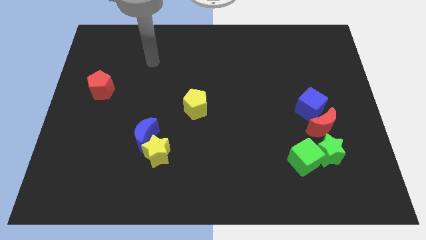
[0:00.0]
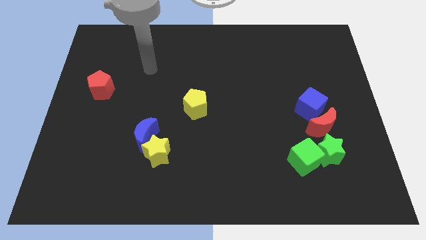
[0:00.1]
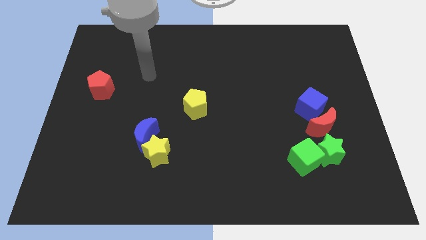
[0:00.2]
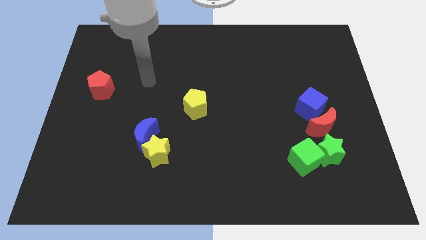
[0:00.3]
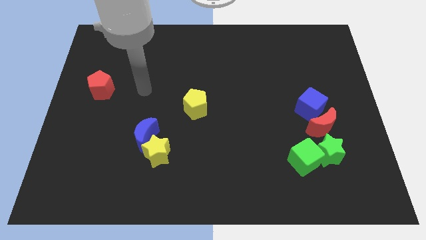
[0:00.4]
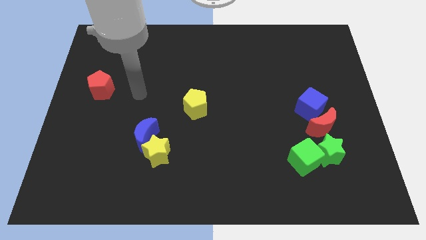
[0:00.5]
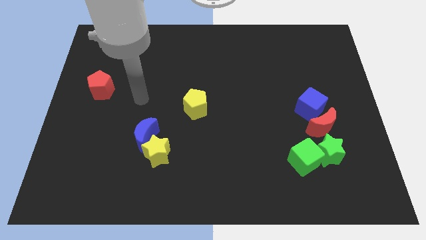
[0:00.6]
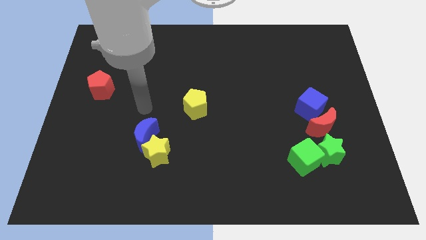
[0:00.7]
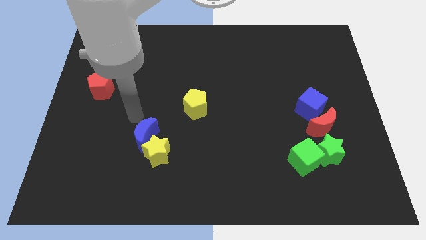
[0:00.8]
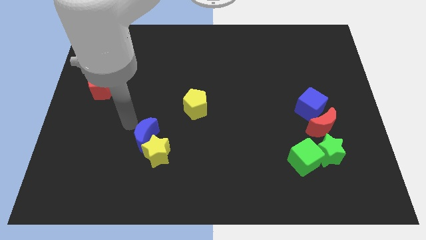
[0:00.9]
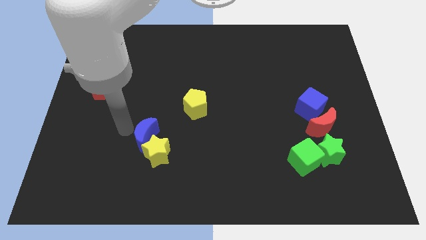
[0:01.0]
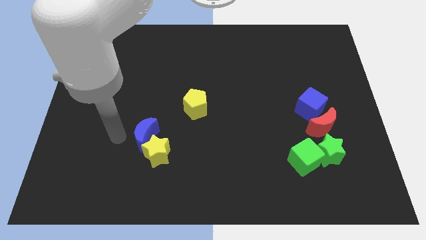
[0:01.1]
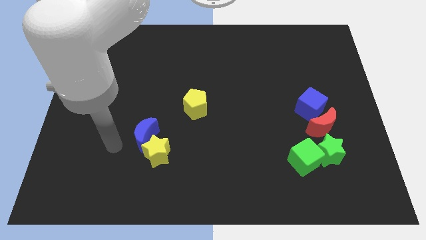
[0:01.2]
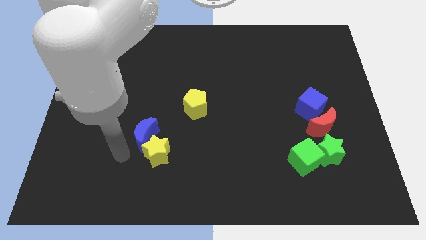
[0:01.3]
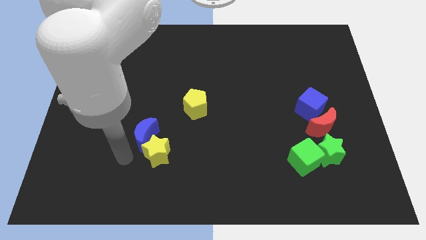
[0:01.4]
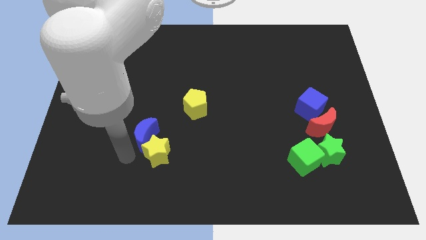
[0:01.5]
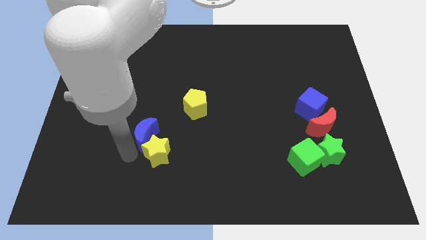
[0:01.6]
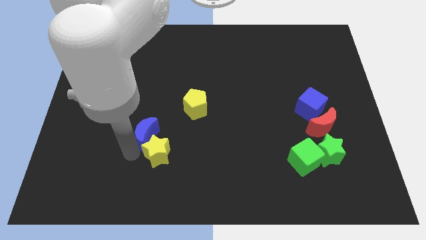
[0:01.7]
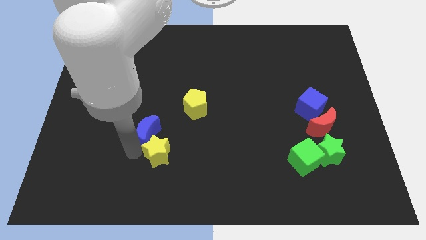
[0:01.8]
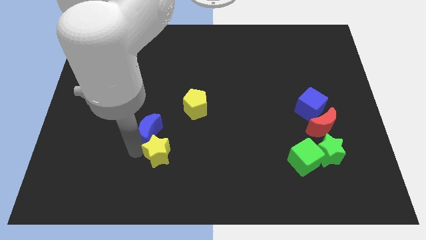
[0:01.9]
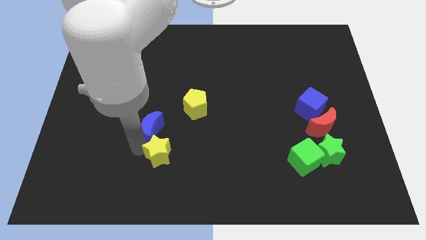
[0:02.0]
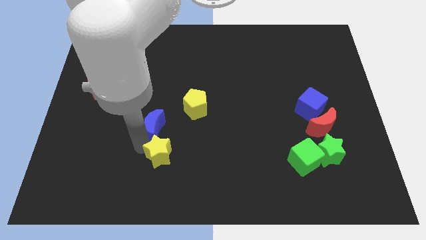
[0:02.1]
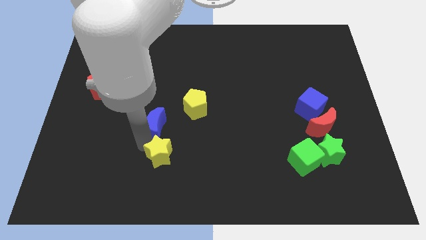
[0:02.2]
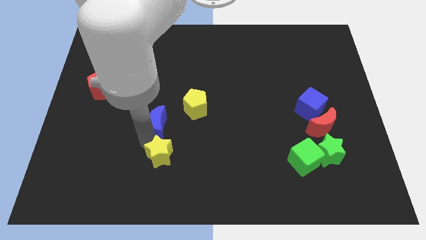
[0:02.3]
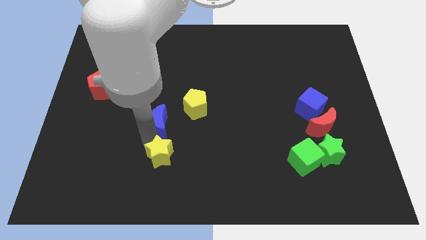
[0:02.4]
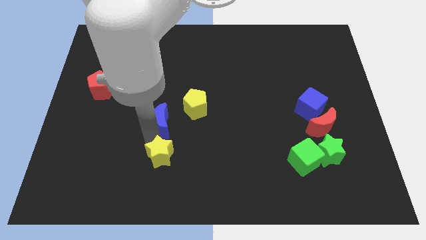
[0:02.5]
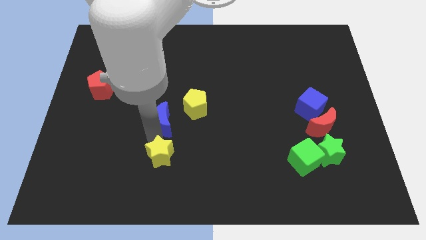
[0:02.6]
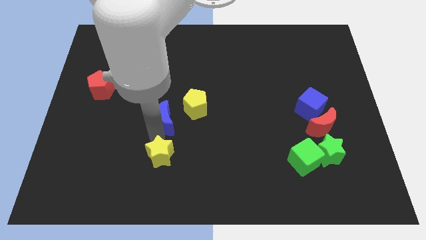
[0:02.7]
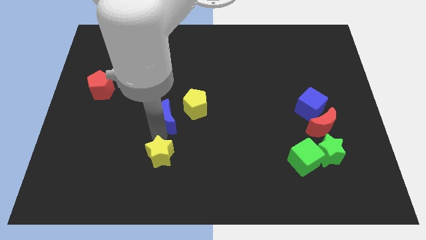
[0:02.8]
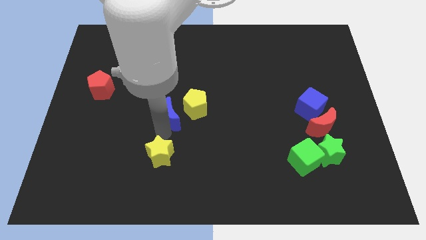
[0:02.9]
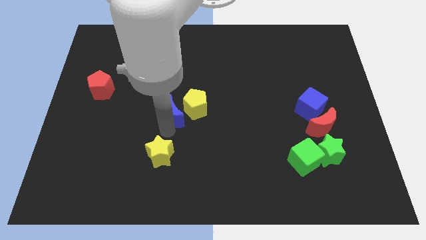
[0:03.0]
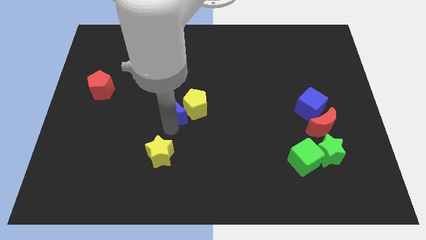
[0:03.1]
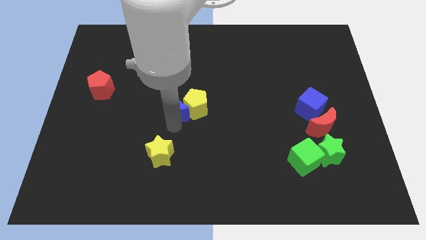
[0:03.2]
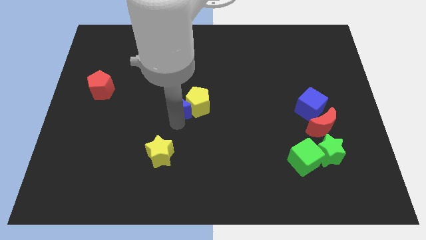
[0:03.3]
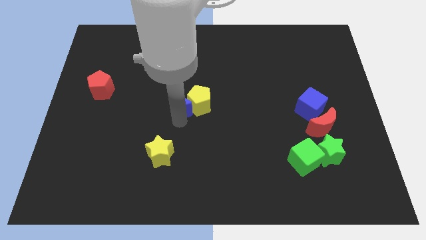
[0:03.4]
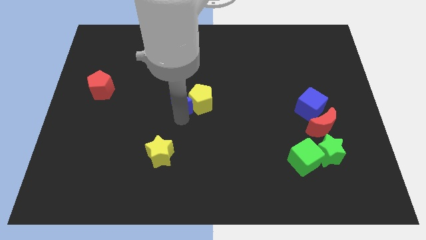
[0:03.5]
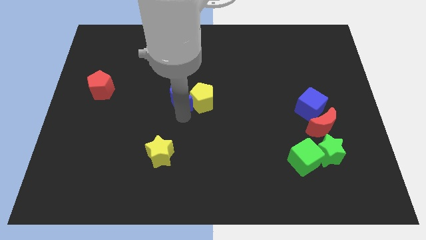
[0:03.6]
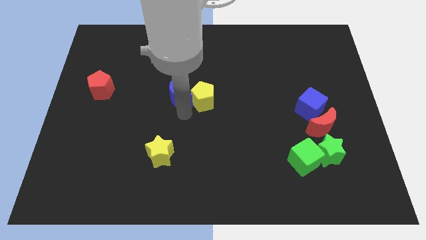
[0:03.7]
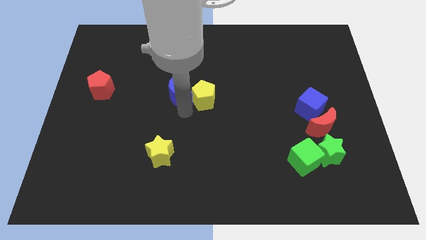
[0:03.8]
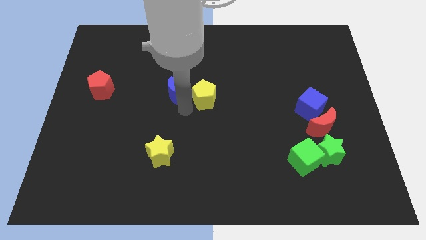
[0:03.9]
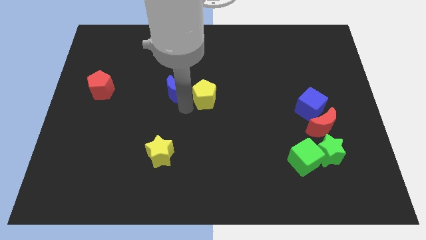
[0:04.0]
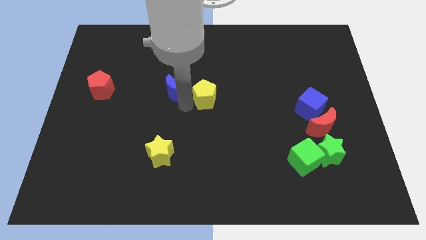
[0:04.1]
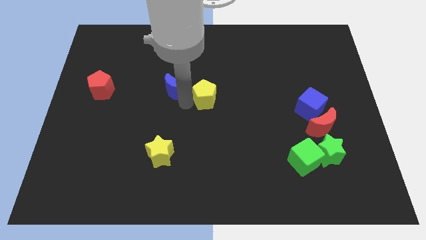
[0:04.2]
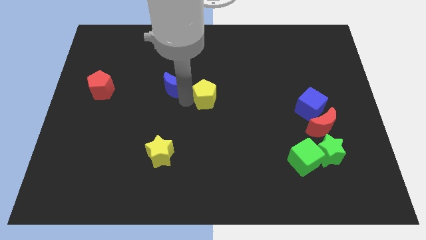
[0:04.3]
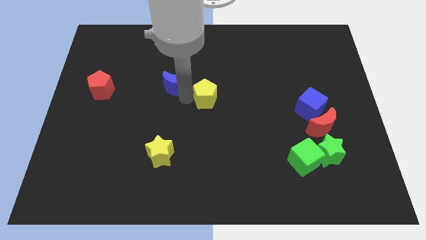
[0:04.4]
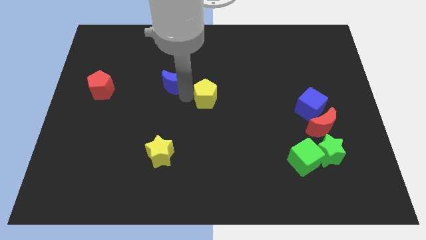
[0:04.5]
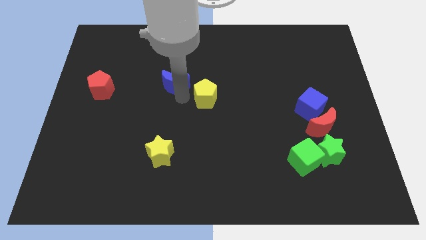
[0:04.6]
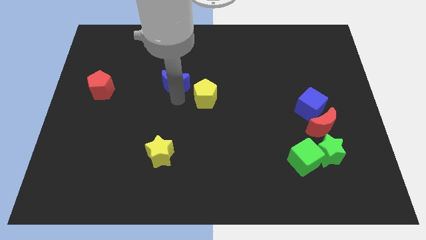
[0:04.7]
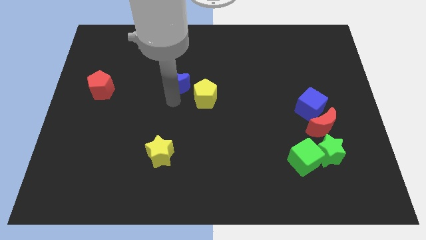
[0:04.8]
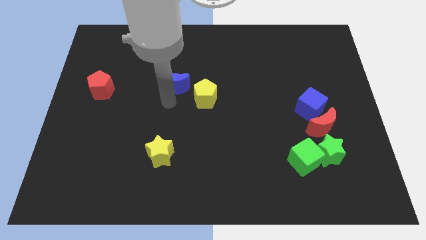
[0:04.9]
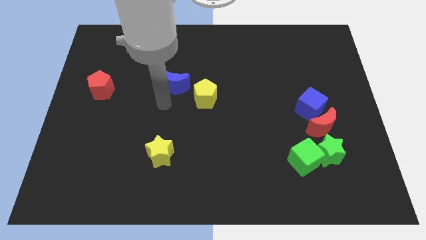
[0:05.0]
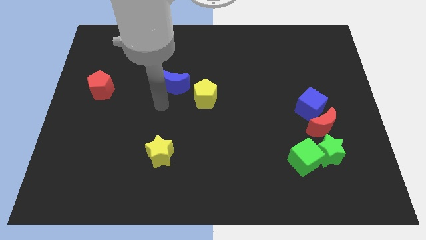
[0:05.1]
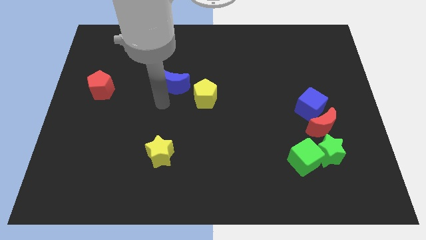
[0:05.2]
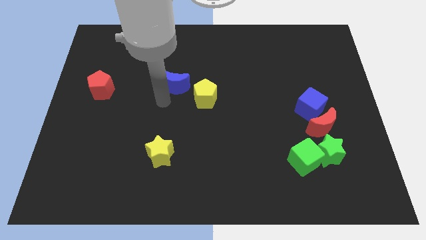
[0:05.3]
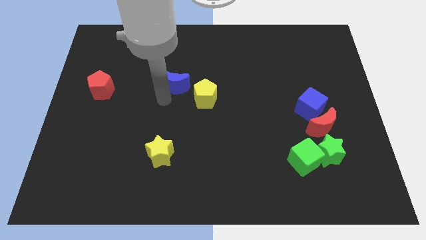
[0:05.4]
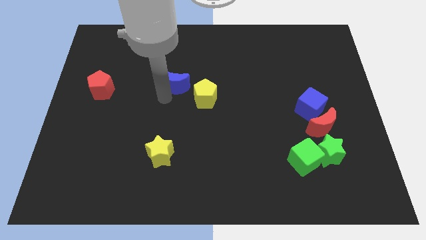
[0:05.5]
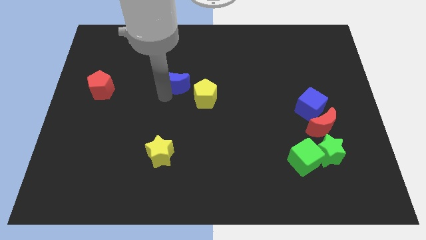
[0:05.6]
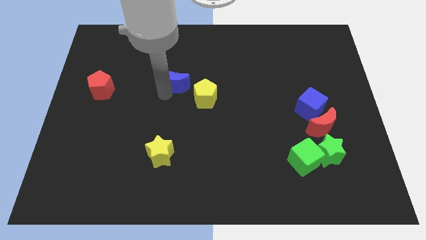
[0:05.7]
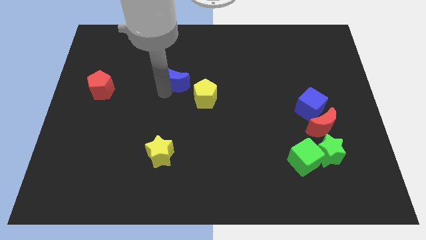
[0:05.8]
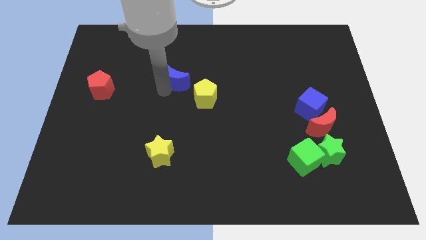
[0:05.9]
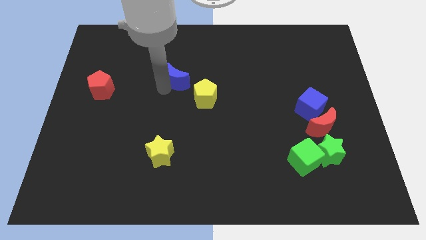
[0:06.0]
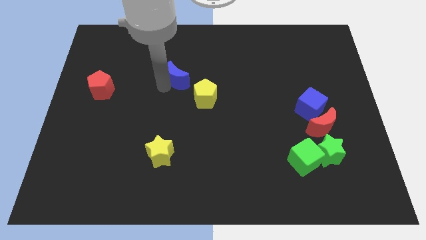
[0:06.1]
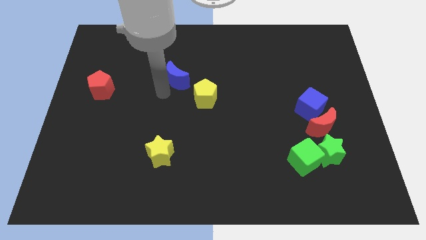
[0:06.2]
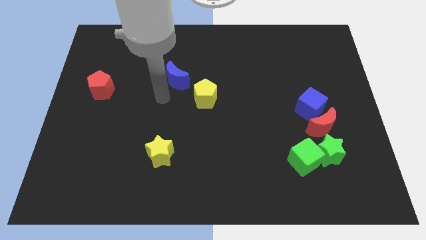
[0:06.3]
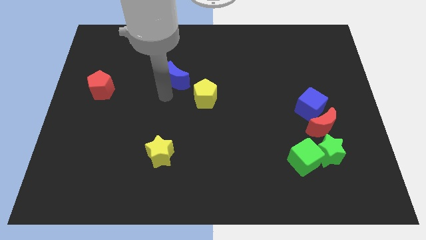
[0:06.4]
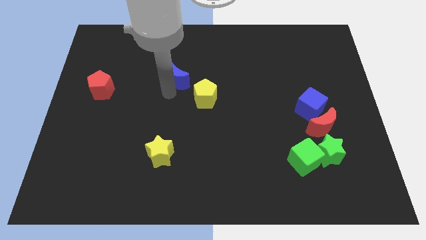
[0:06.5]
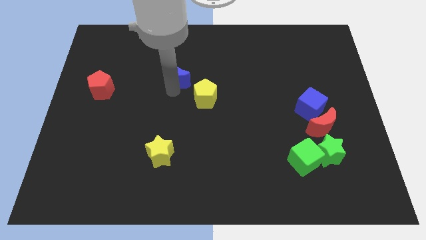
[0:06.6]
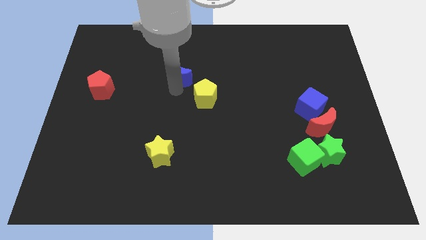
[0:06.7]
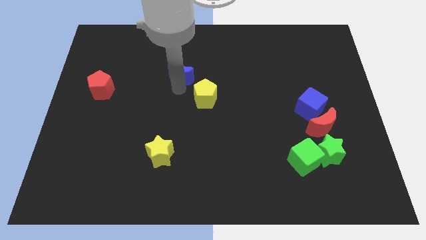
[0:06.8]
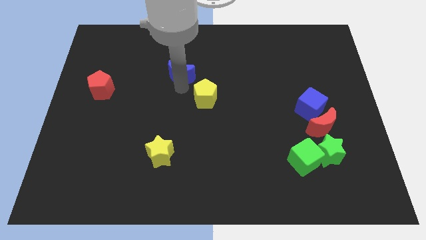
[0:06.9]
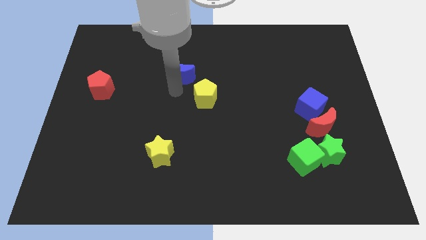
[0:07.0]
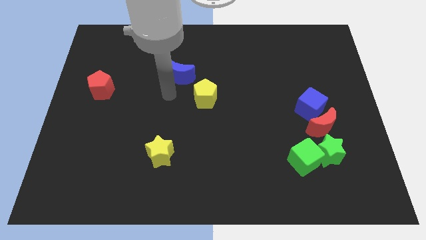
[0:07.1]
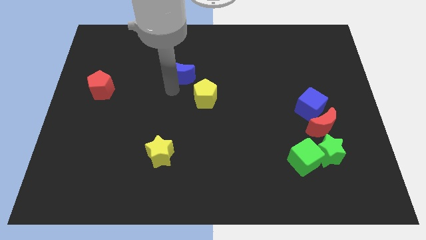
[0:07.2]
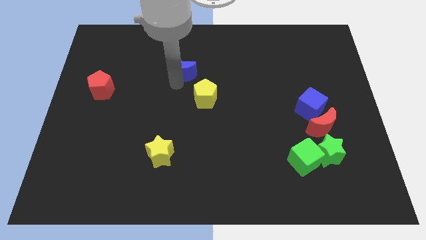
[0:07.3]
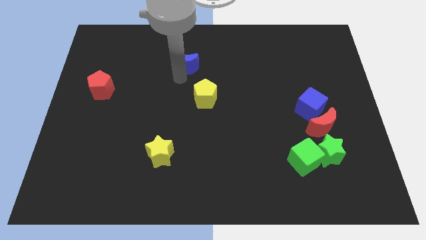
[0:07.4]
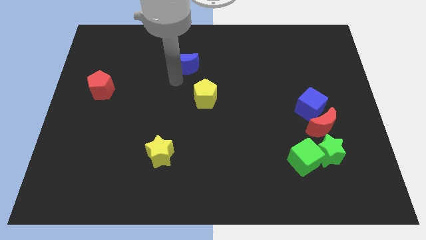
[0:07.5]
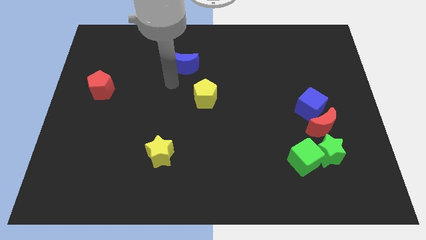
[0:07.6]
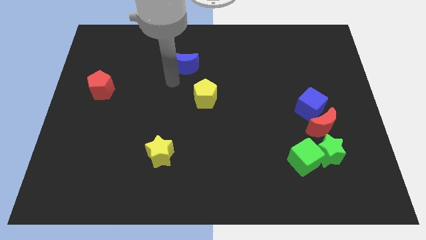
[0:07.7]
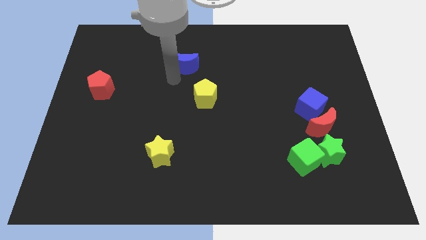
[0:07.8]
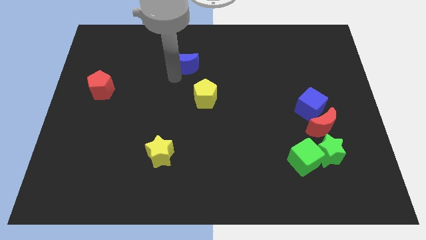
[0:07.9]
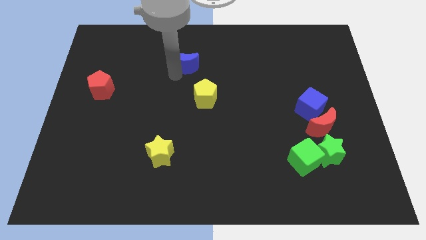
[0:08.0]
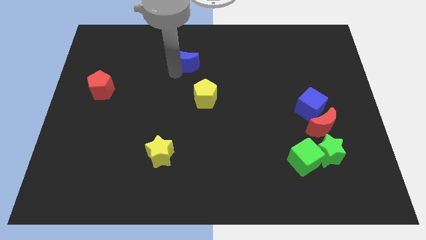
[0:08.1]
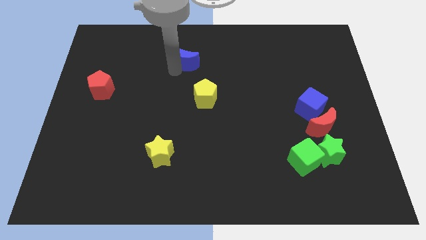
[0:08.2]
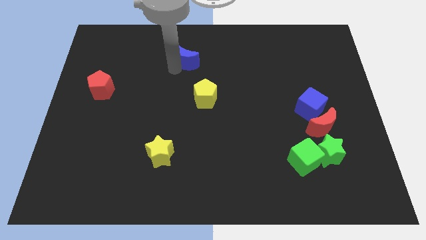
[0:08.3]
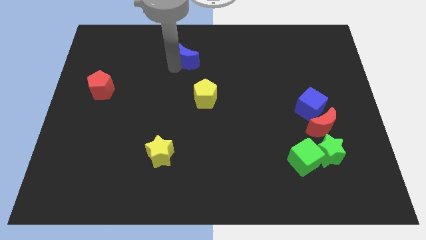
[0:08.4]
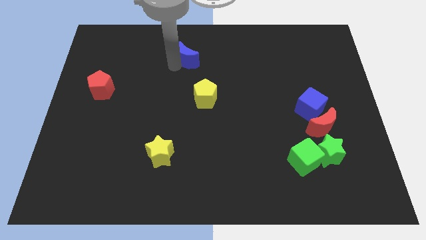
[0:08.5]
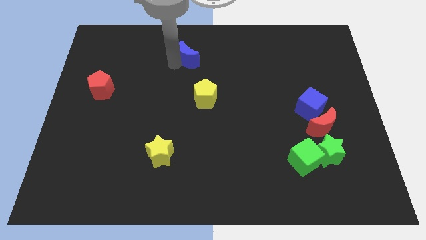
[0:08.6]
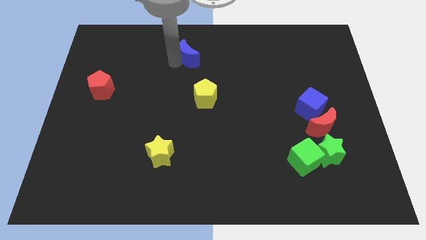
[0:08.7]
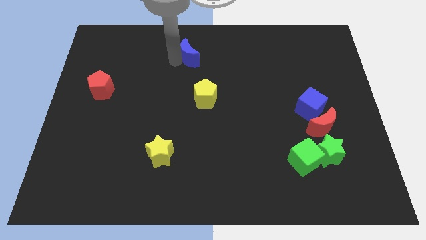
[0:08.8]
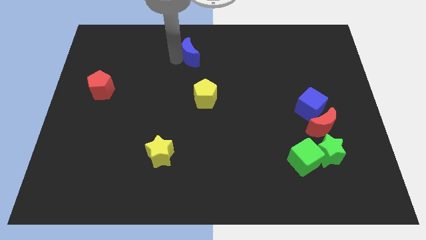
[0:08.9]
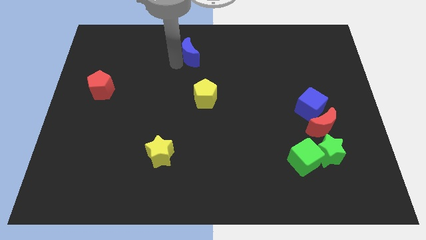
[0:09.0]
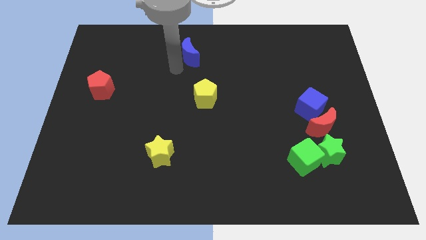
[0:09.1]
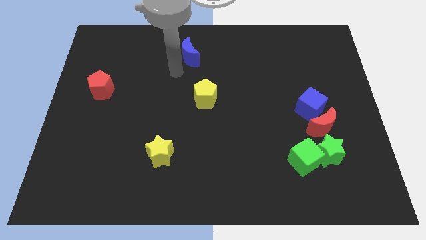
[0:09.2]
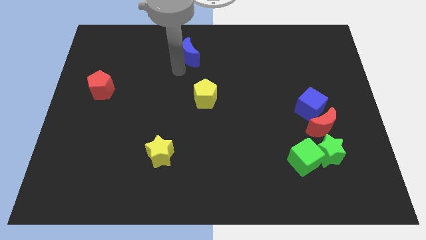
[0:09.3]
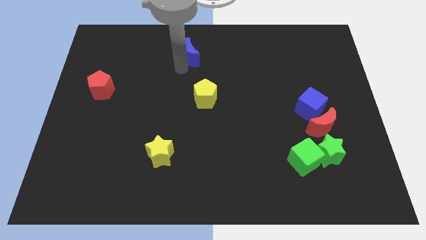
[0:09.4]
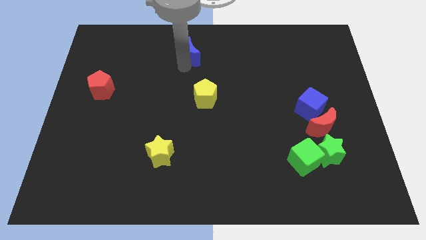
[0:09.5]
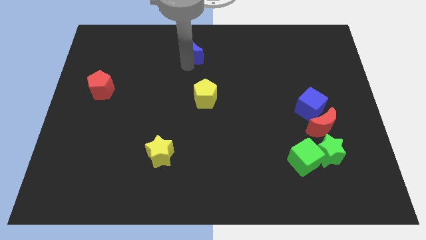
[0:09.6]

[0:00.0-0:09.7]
move the blue moon to the towards your base
